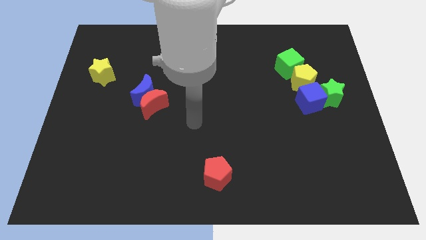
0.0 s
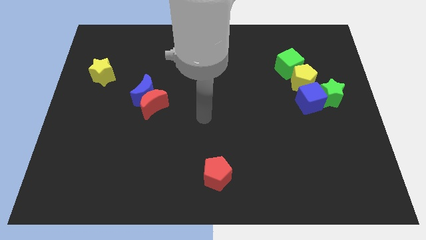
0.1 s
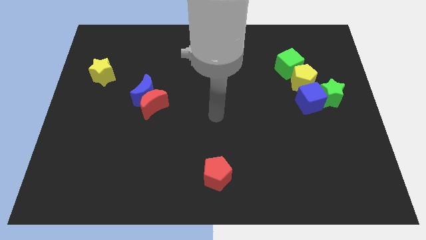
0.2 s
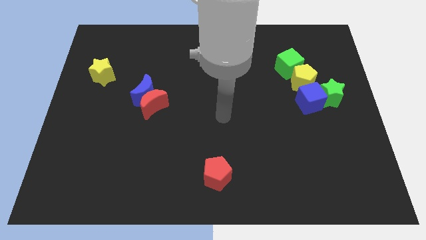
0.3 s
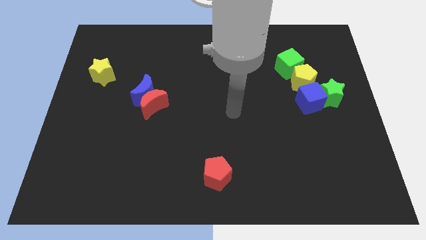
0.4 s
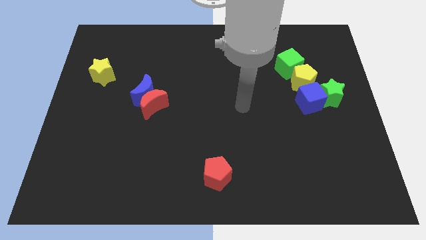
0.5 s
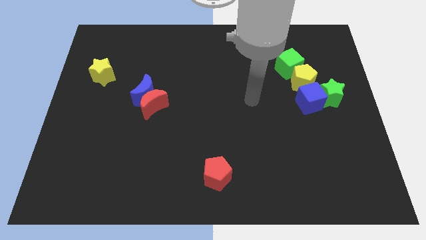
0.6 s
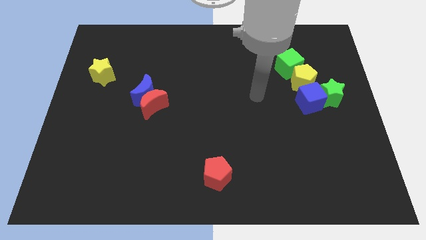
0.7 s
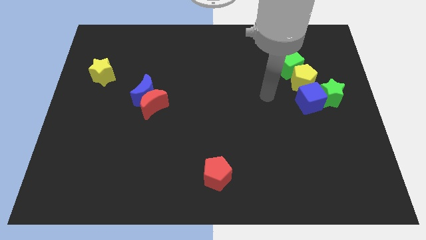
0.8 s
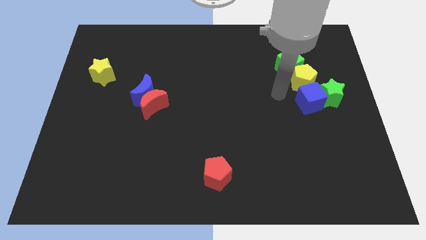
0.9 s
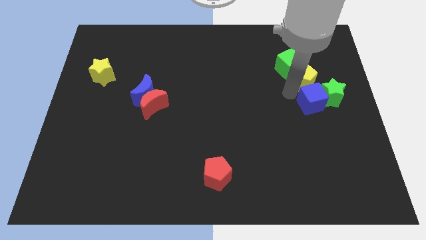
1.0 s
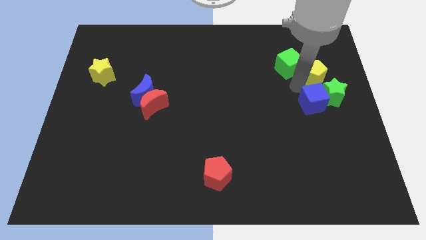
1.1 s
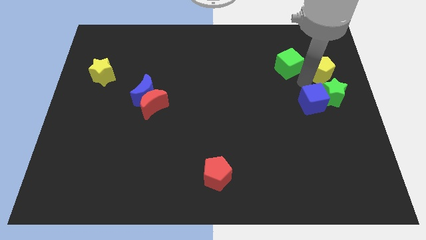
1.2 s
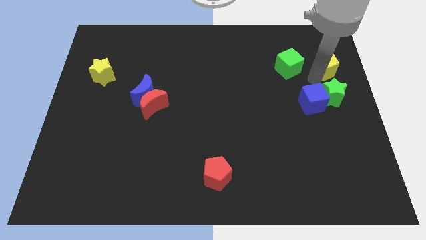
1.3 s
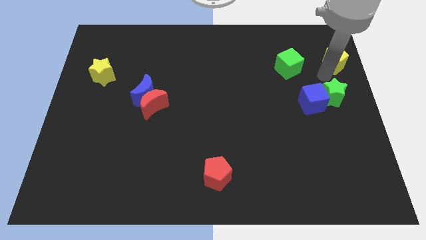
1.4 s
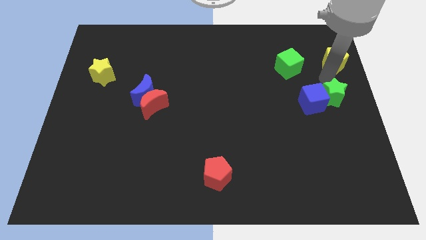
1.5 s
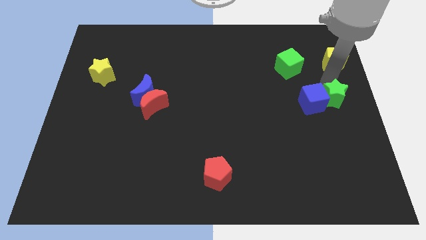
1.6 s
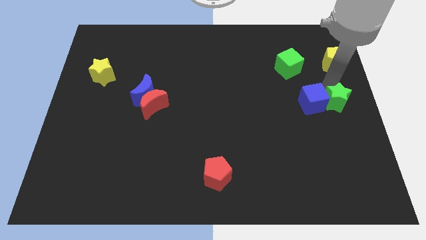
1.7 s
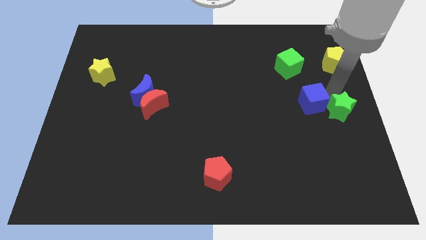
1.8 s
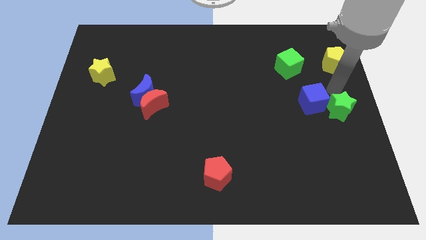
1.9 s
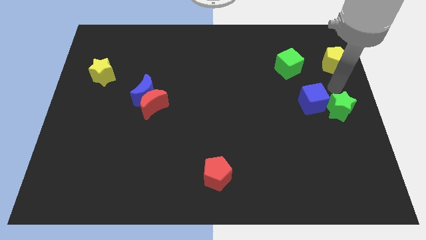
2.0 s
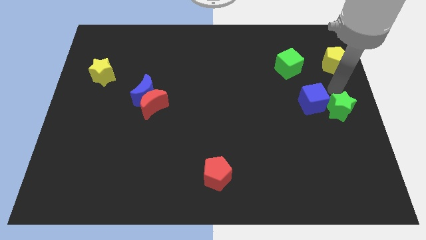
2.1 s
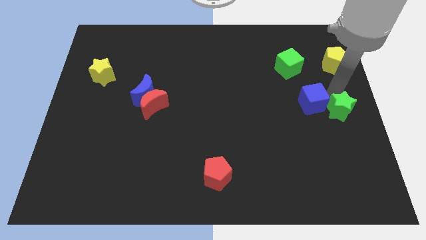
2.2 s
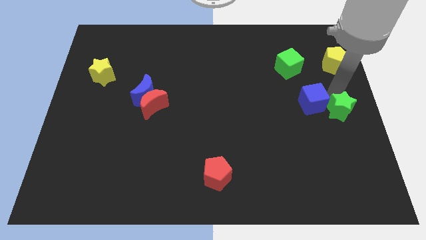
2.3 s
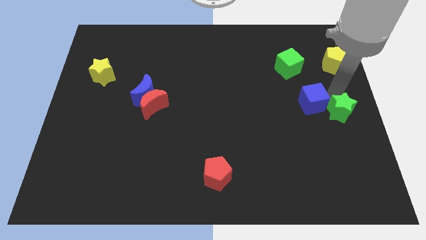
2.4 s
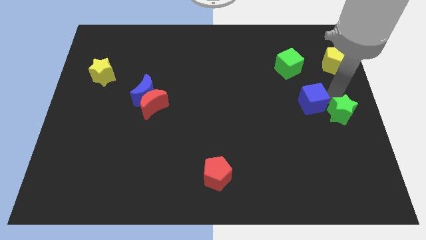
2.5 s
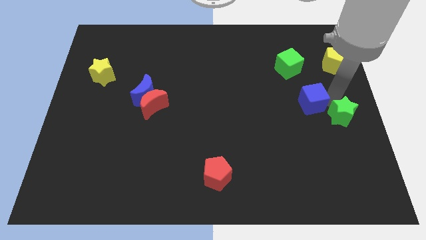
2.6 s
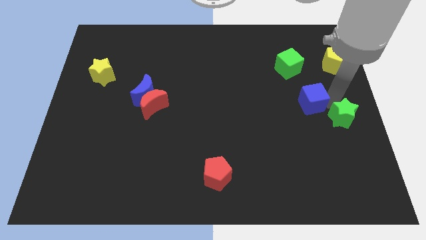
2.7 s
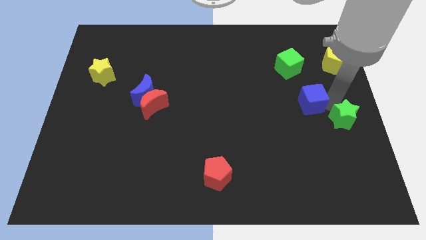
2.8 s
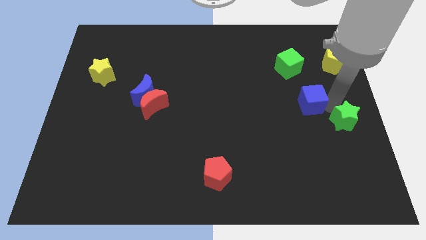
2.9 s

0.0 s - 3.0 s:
slightly push the green star downwards

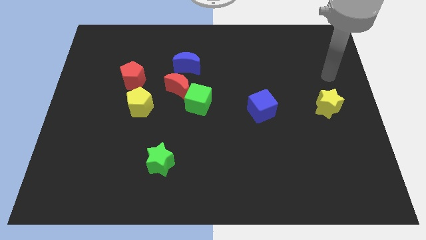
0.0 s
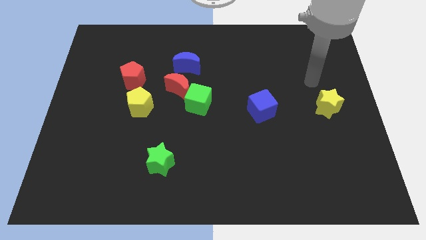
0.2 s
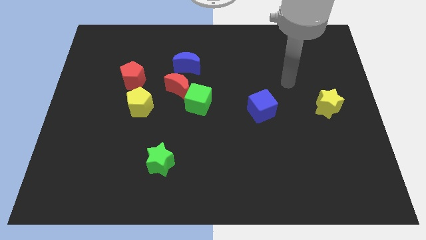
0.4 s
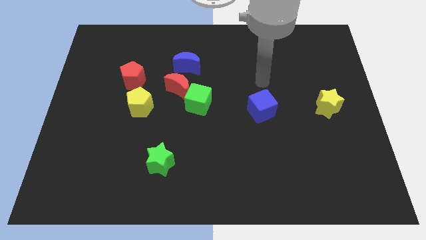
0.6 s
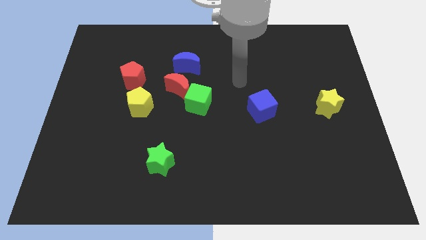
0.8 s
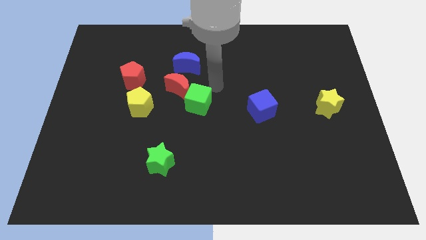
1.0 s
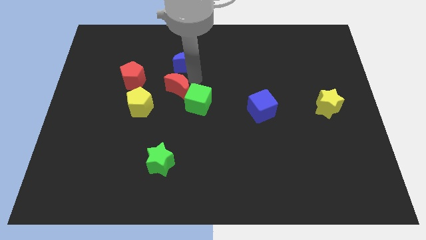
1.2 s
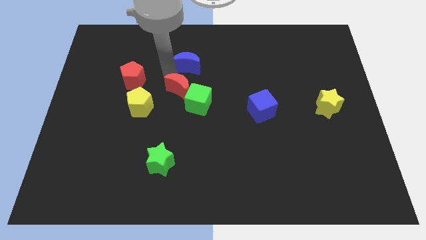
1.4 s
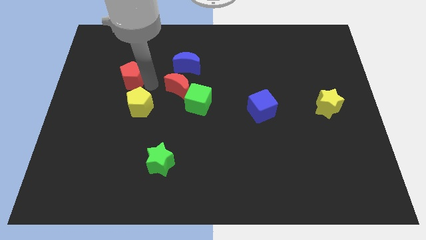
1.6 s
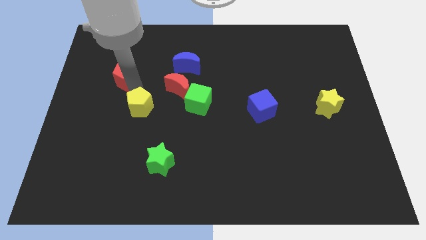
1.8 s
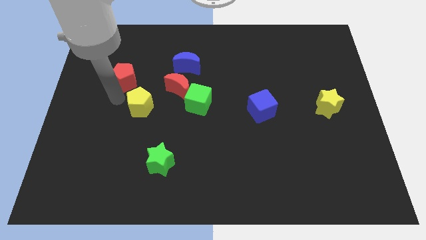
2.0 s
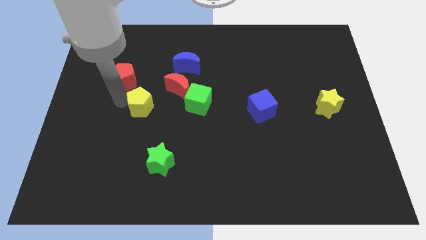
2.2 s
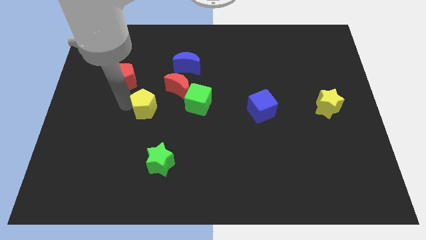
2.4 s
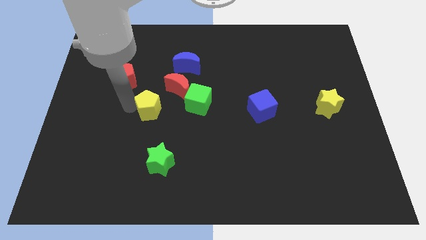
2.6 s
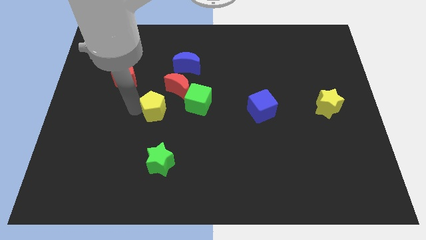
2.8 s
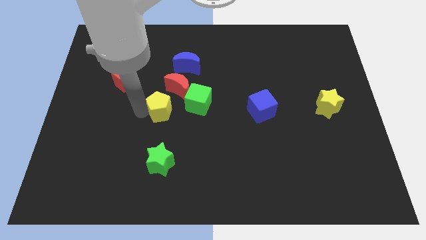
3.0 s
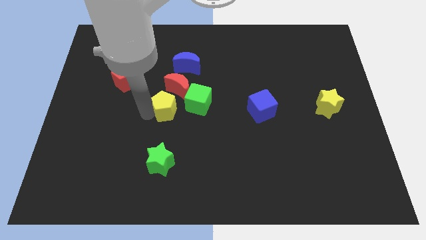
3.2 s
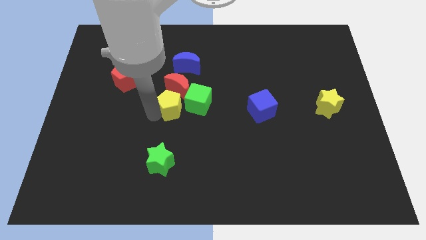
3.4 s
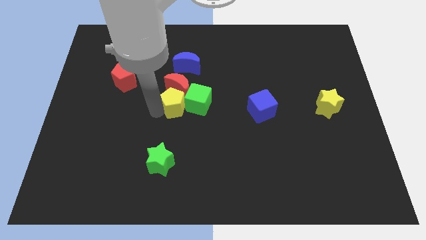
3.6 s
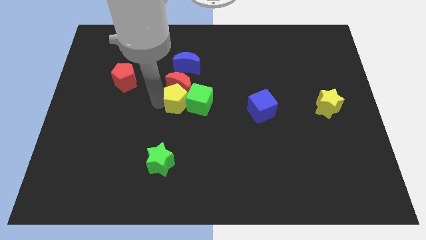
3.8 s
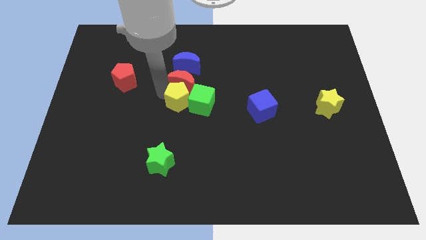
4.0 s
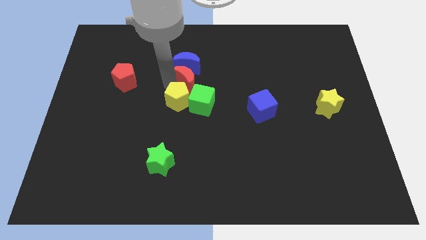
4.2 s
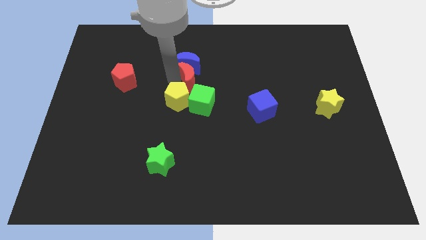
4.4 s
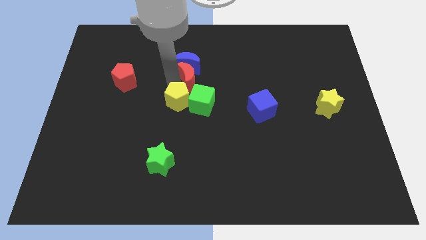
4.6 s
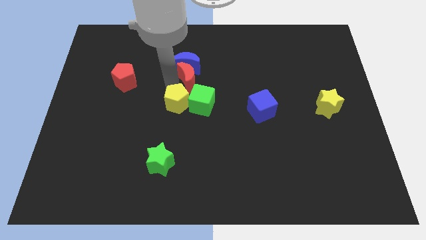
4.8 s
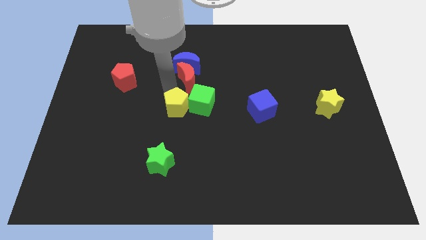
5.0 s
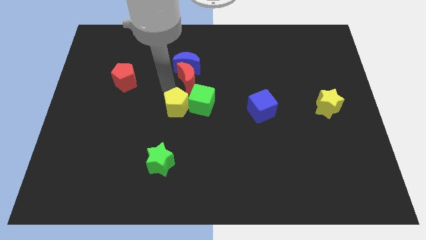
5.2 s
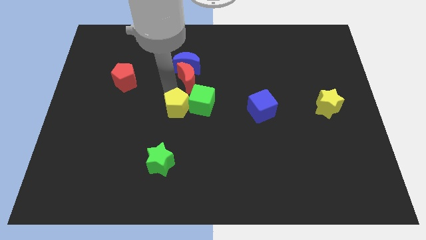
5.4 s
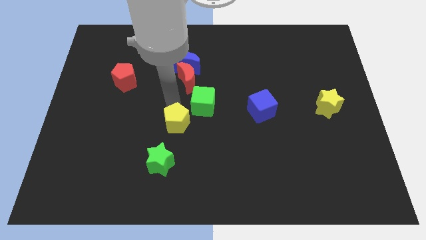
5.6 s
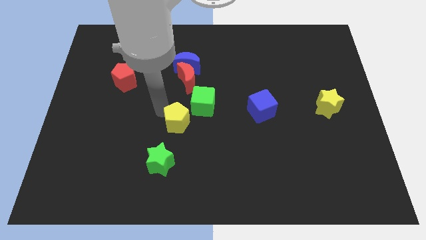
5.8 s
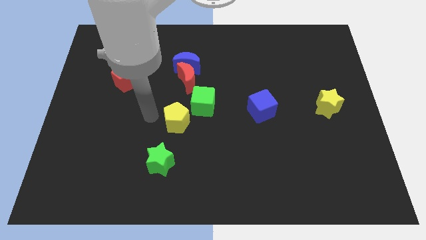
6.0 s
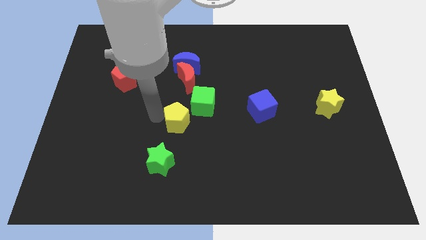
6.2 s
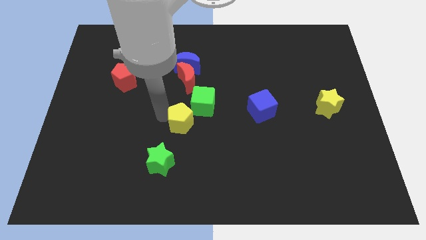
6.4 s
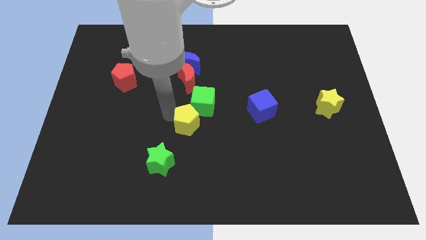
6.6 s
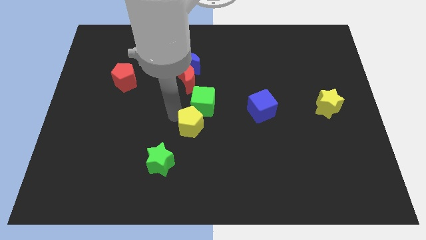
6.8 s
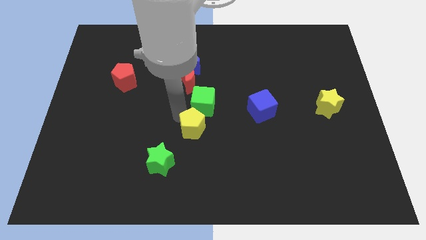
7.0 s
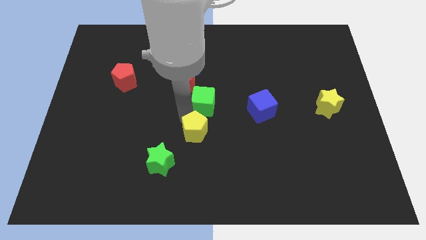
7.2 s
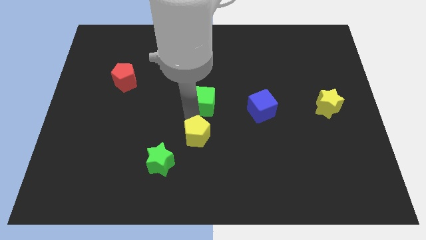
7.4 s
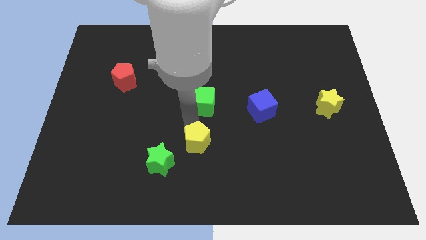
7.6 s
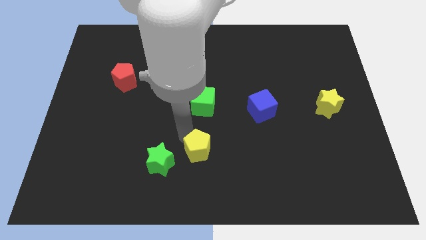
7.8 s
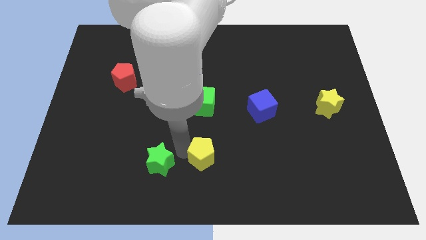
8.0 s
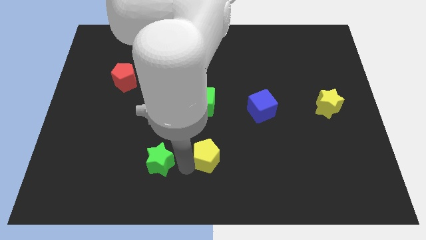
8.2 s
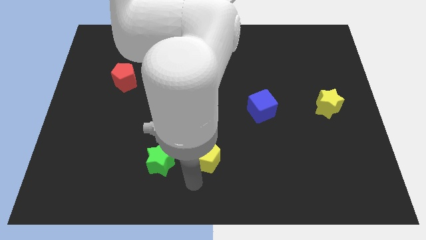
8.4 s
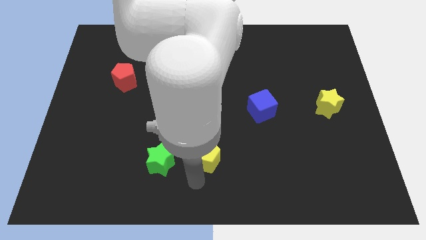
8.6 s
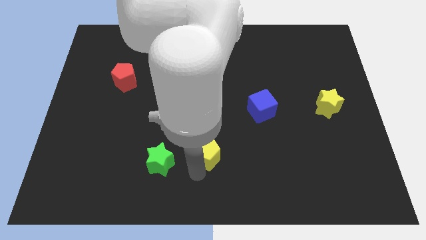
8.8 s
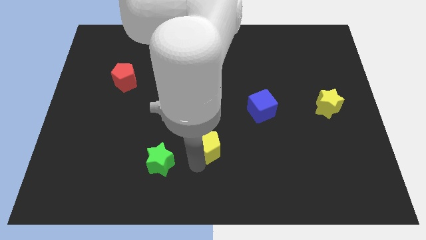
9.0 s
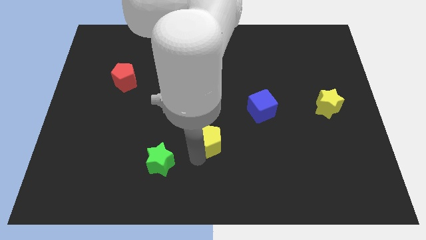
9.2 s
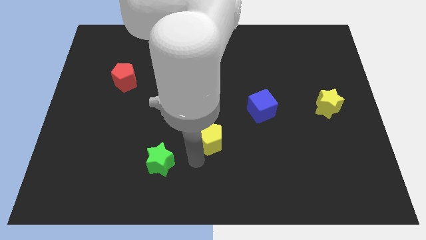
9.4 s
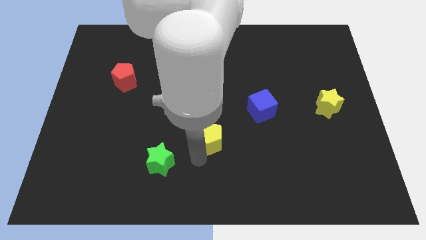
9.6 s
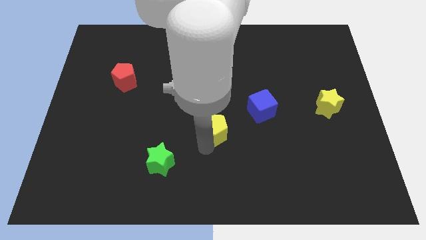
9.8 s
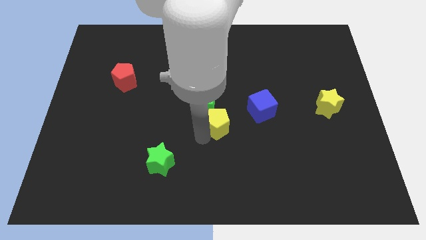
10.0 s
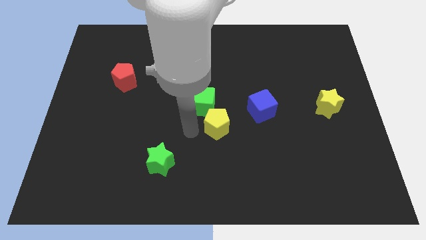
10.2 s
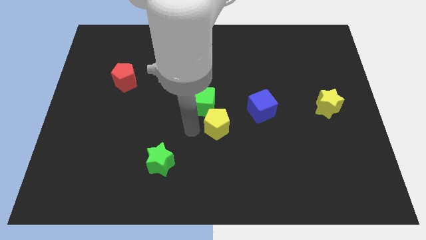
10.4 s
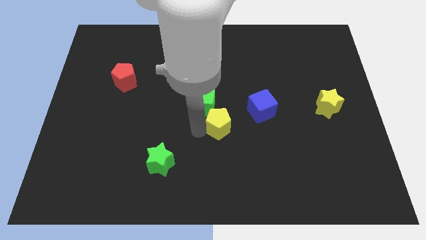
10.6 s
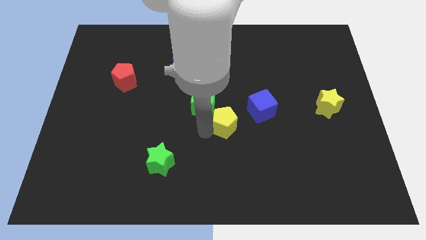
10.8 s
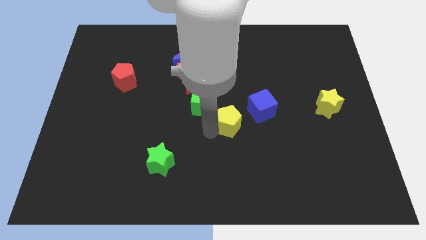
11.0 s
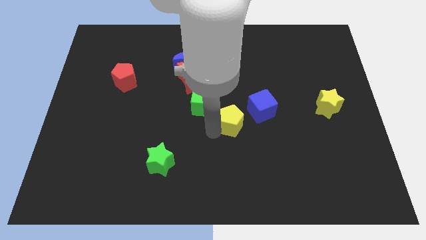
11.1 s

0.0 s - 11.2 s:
slide the yellow pentagon right
